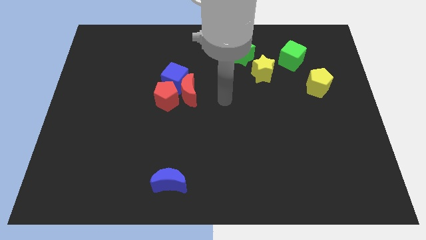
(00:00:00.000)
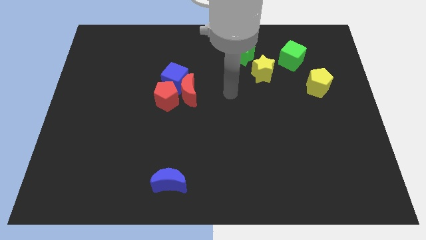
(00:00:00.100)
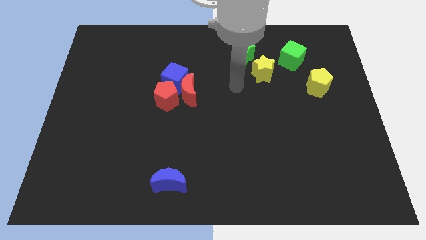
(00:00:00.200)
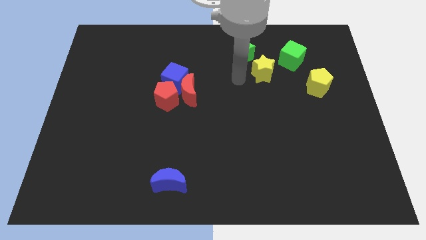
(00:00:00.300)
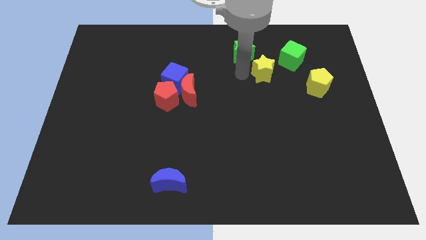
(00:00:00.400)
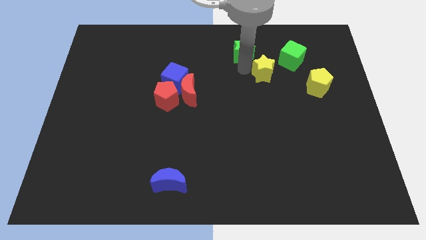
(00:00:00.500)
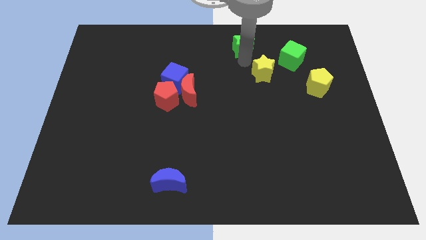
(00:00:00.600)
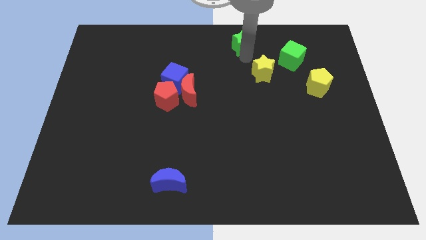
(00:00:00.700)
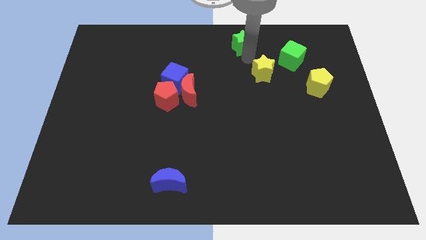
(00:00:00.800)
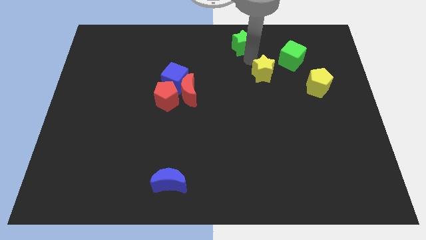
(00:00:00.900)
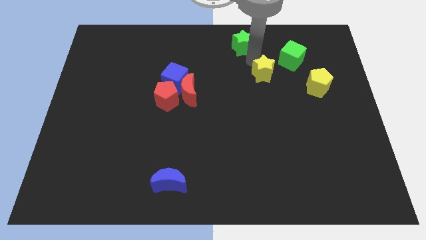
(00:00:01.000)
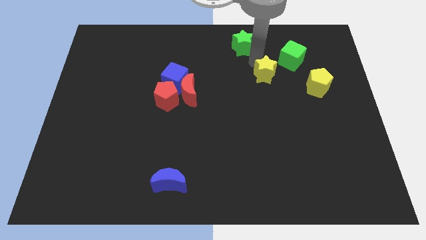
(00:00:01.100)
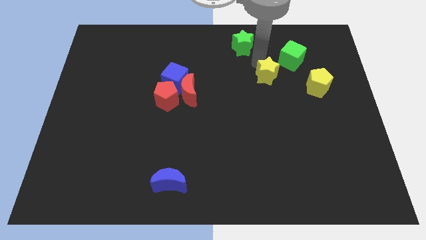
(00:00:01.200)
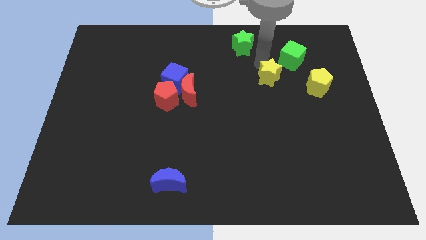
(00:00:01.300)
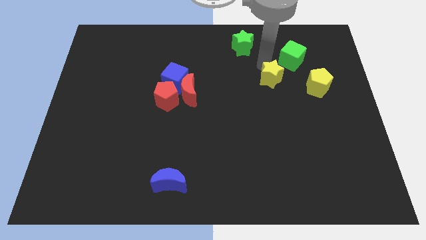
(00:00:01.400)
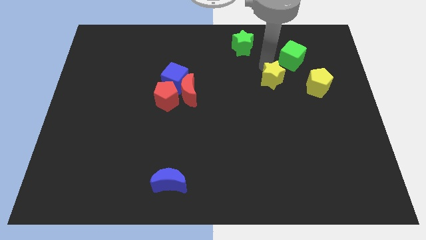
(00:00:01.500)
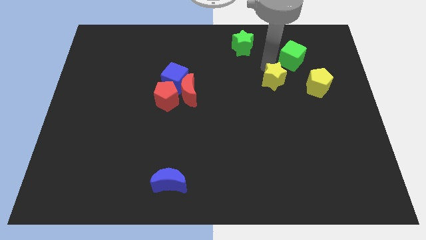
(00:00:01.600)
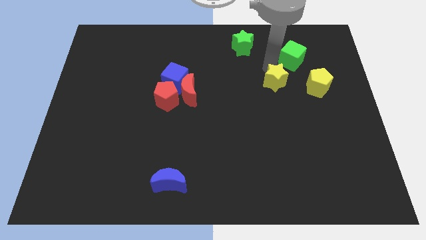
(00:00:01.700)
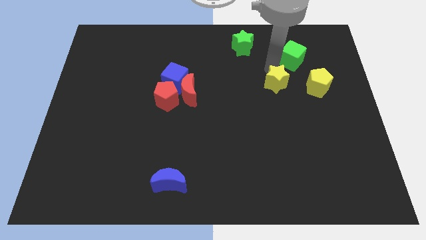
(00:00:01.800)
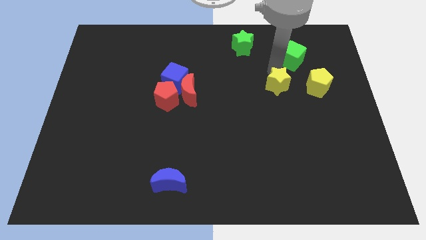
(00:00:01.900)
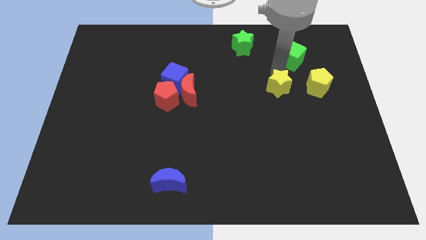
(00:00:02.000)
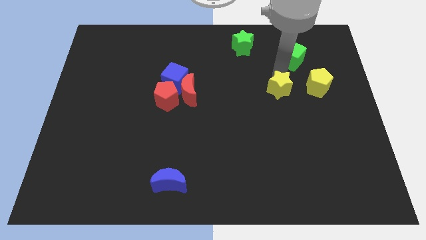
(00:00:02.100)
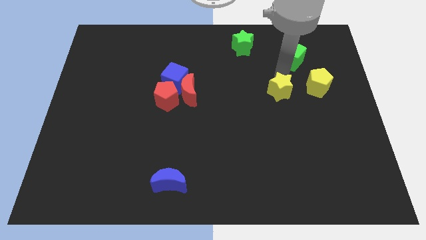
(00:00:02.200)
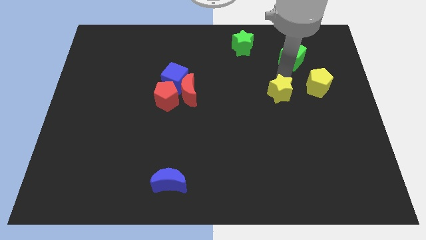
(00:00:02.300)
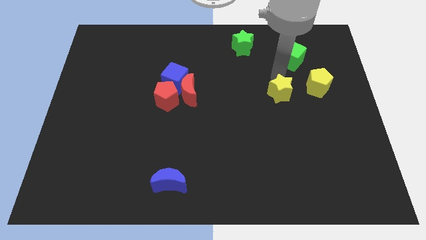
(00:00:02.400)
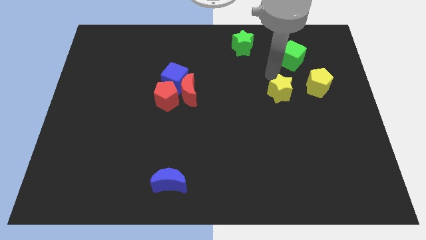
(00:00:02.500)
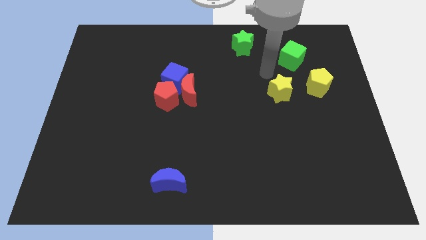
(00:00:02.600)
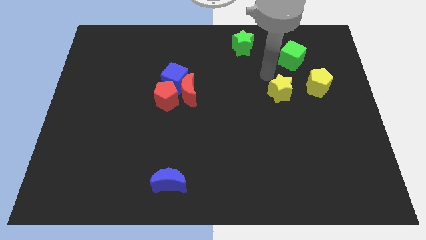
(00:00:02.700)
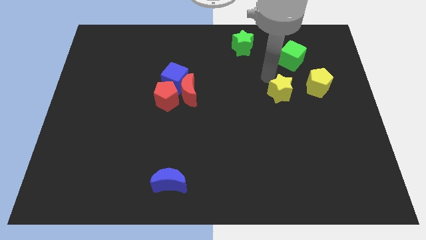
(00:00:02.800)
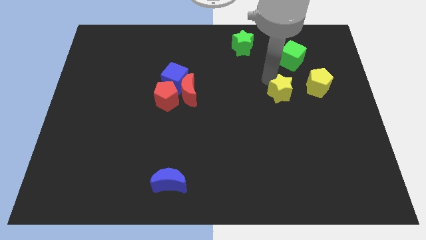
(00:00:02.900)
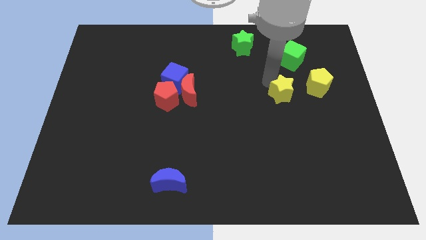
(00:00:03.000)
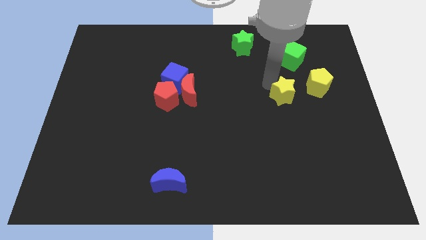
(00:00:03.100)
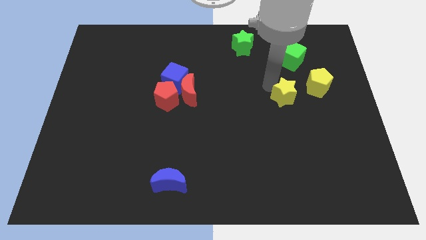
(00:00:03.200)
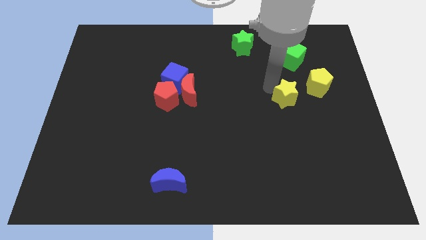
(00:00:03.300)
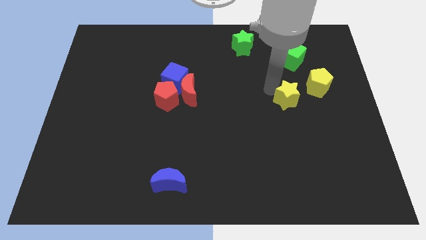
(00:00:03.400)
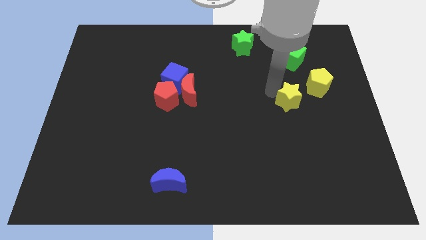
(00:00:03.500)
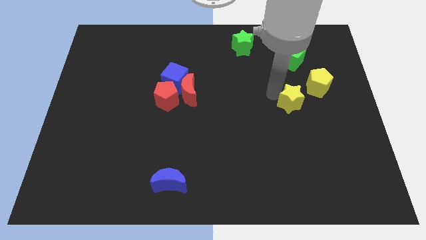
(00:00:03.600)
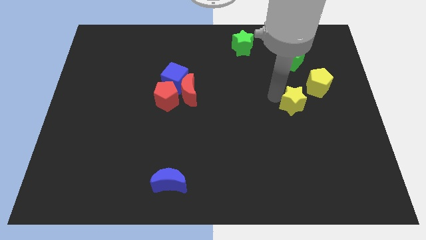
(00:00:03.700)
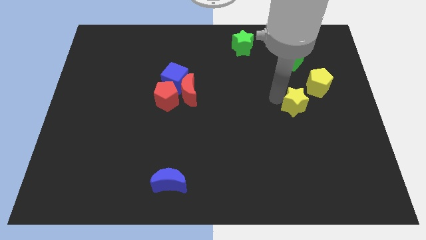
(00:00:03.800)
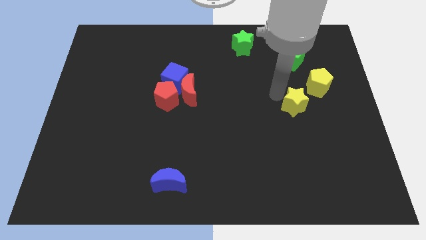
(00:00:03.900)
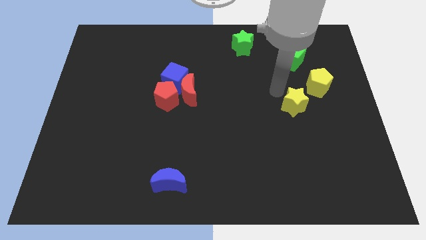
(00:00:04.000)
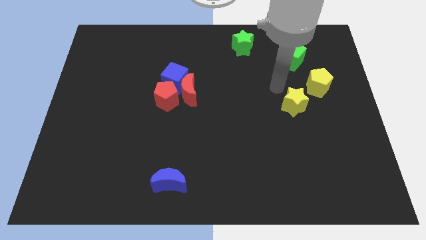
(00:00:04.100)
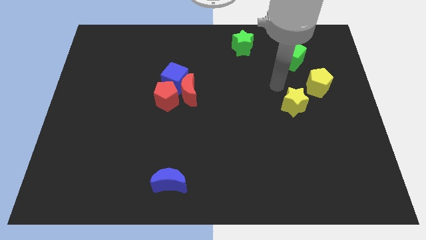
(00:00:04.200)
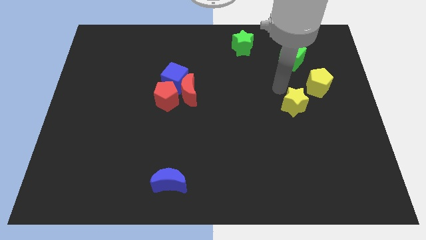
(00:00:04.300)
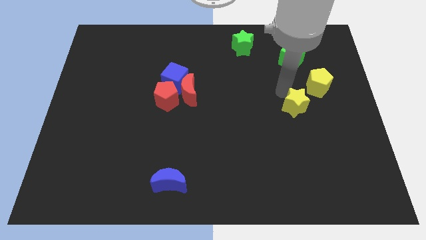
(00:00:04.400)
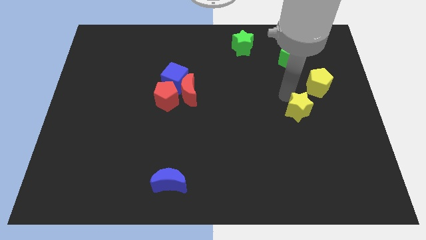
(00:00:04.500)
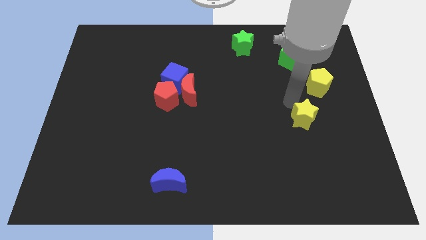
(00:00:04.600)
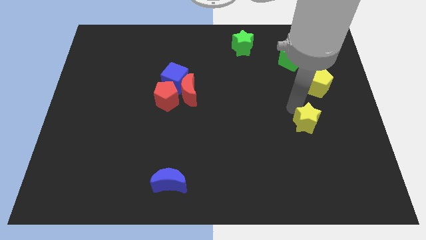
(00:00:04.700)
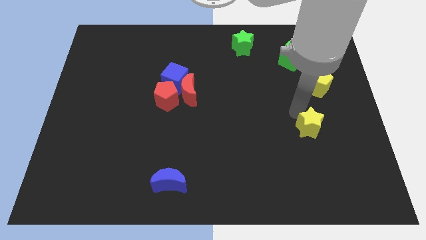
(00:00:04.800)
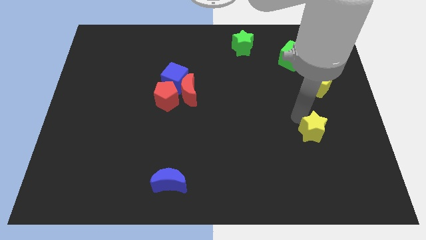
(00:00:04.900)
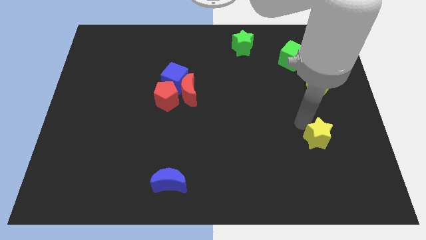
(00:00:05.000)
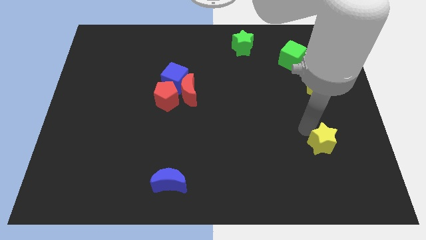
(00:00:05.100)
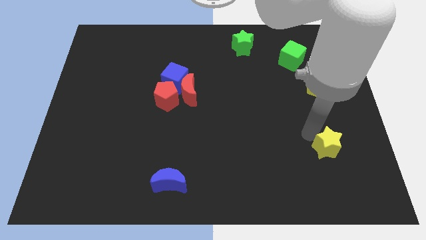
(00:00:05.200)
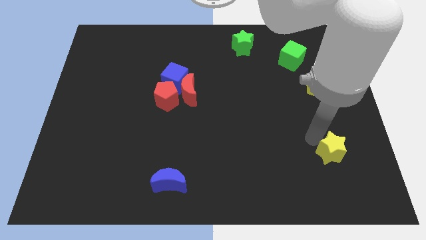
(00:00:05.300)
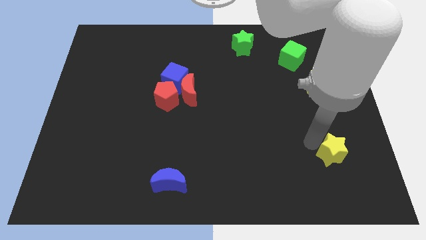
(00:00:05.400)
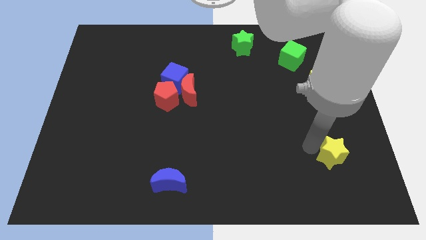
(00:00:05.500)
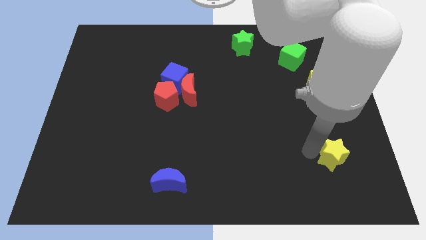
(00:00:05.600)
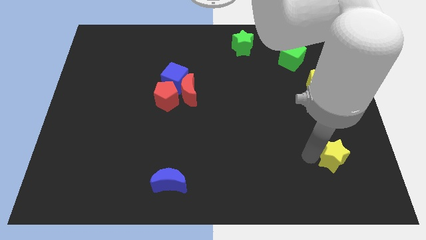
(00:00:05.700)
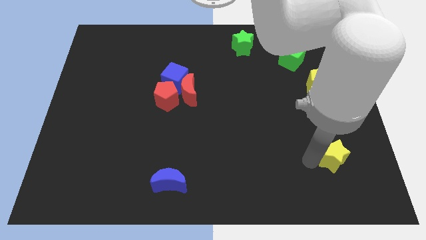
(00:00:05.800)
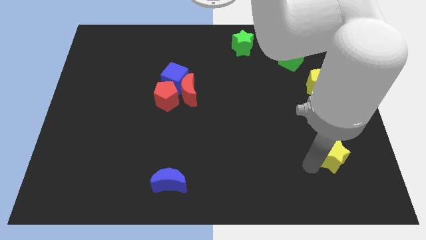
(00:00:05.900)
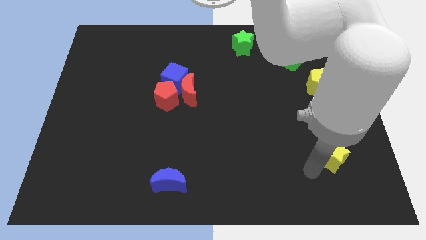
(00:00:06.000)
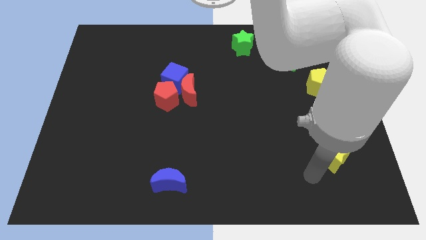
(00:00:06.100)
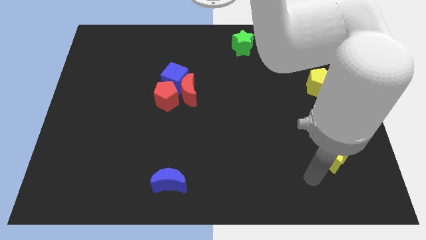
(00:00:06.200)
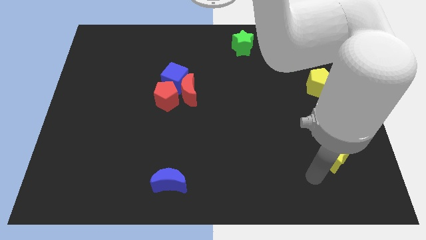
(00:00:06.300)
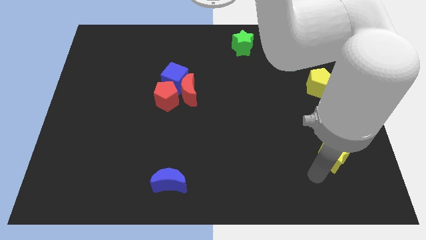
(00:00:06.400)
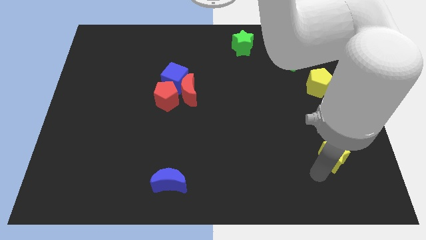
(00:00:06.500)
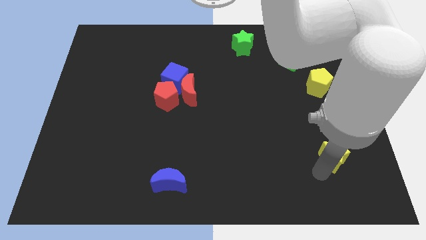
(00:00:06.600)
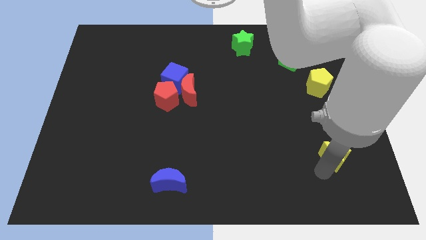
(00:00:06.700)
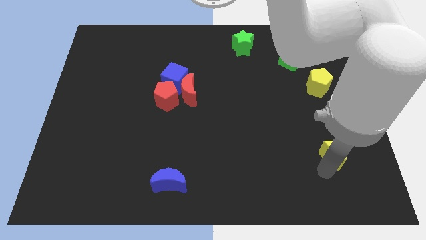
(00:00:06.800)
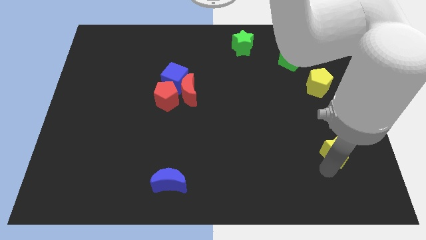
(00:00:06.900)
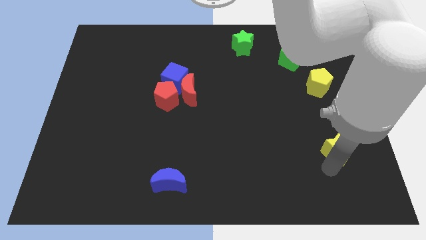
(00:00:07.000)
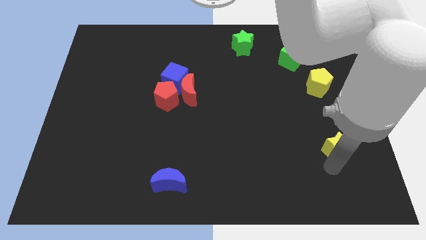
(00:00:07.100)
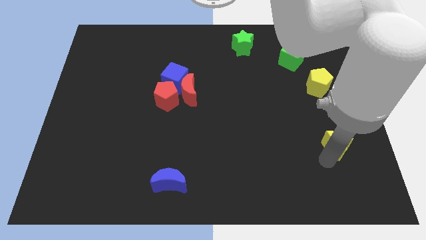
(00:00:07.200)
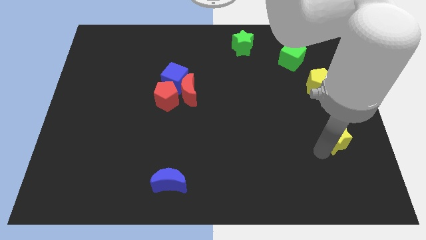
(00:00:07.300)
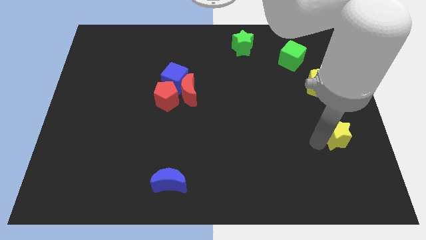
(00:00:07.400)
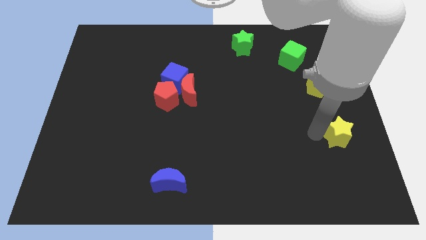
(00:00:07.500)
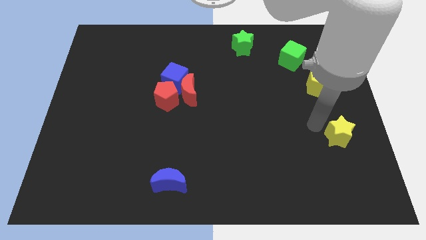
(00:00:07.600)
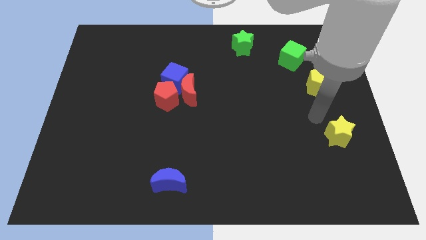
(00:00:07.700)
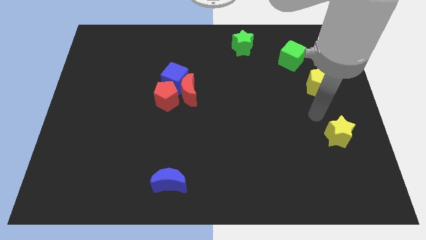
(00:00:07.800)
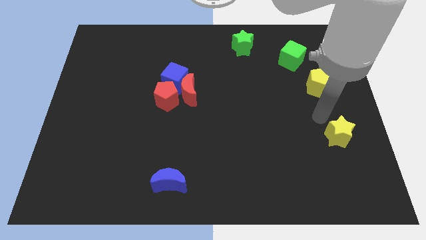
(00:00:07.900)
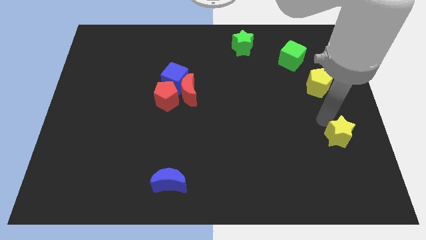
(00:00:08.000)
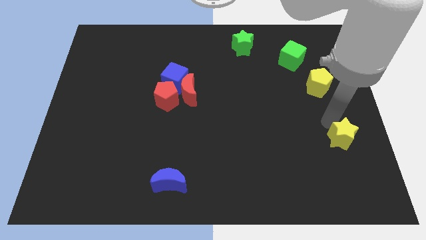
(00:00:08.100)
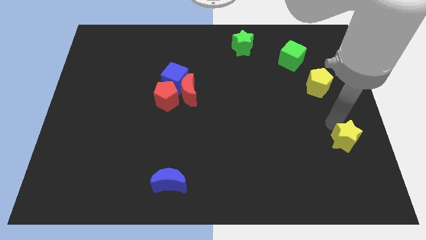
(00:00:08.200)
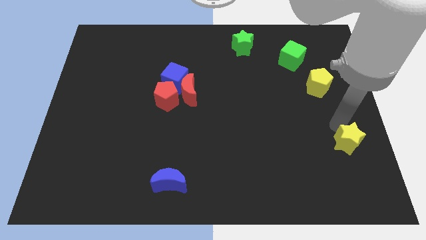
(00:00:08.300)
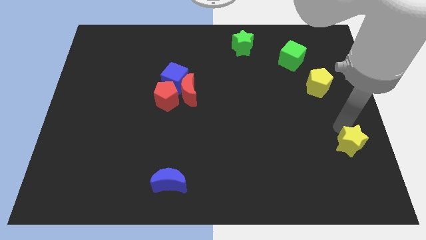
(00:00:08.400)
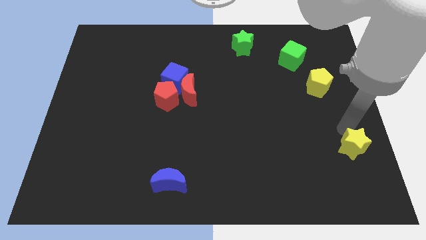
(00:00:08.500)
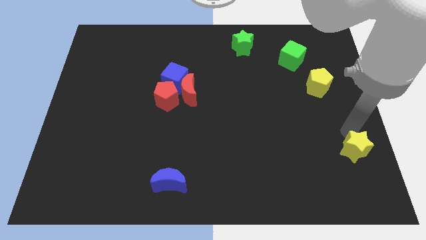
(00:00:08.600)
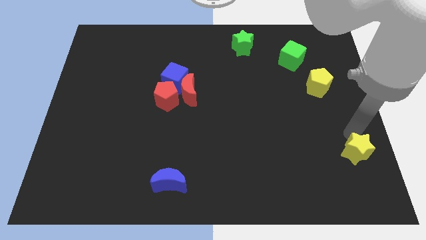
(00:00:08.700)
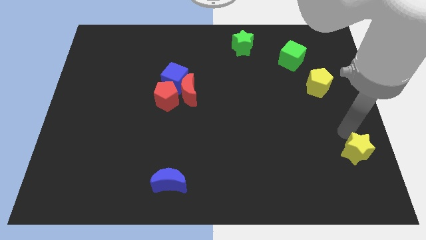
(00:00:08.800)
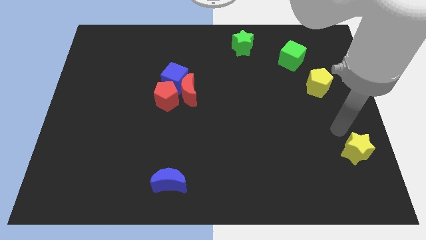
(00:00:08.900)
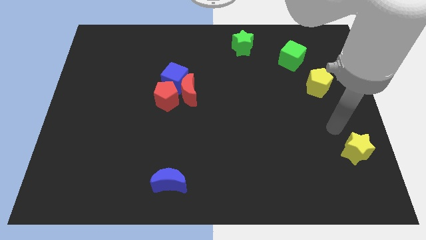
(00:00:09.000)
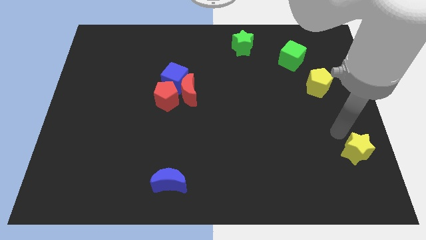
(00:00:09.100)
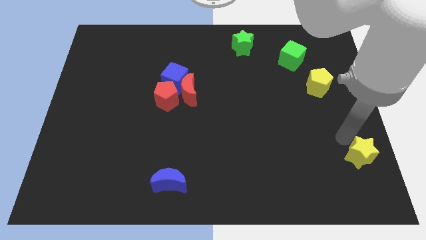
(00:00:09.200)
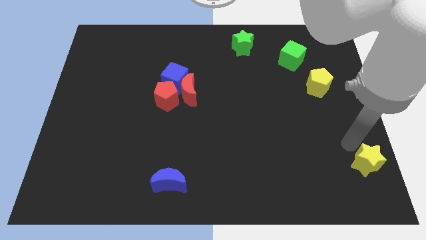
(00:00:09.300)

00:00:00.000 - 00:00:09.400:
move the yellow star to the lower right corner
